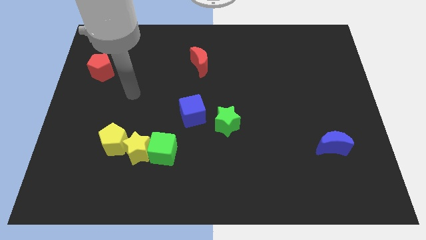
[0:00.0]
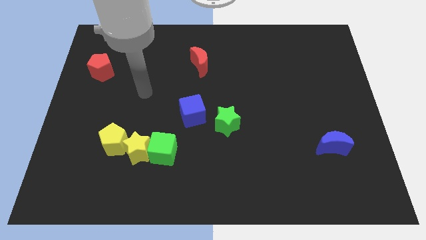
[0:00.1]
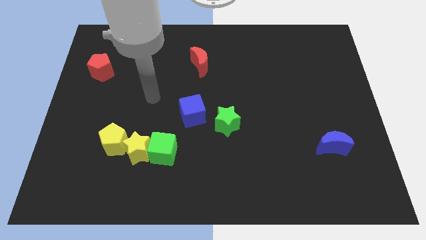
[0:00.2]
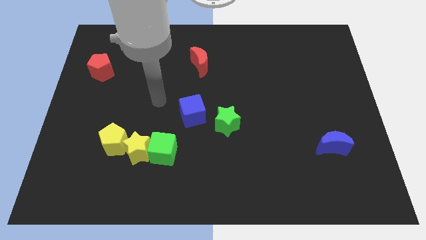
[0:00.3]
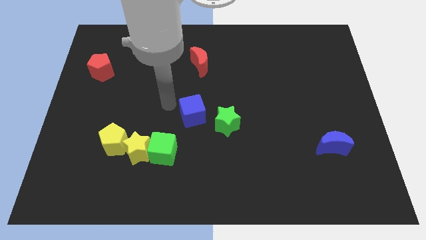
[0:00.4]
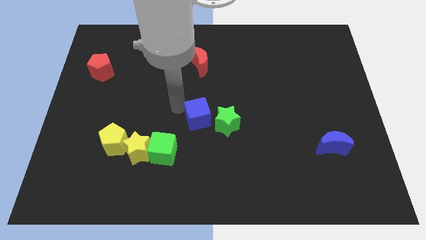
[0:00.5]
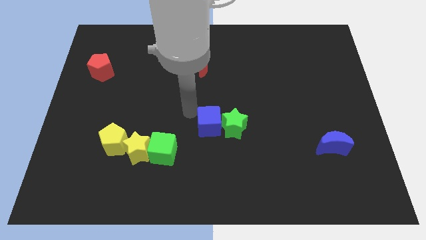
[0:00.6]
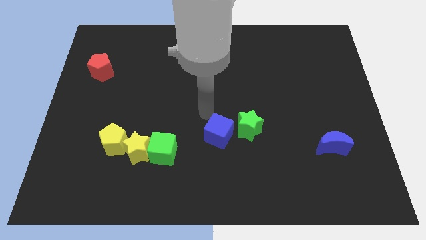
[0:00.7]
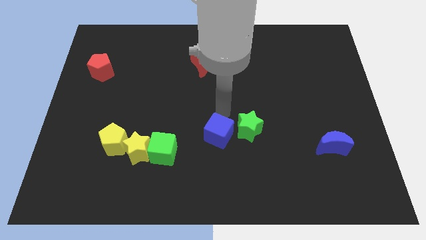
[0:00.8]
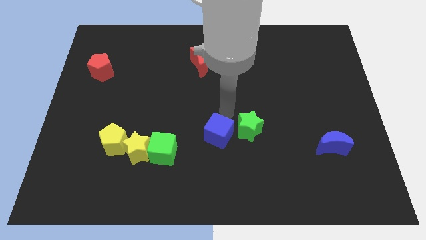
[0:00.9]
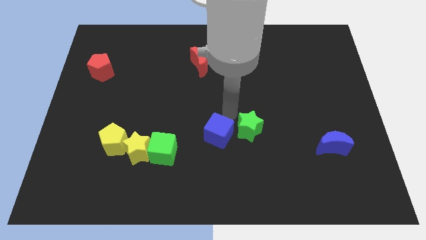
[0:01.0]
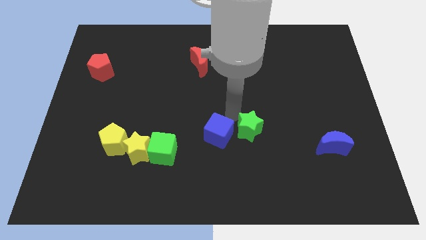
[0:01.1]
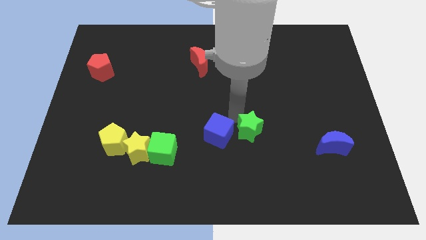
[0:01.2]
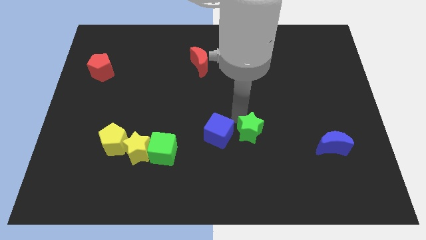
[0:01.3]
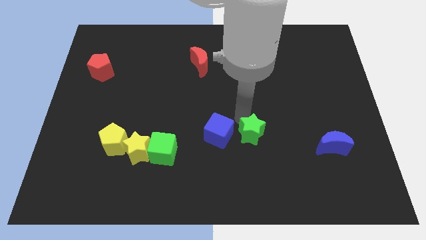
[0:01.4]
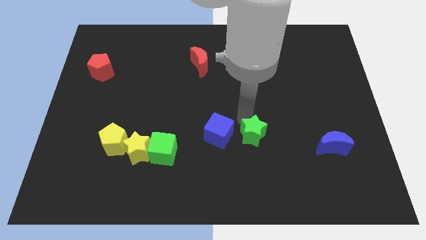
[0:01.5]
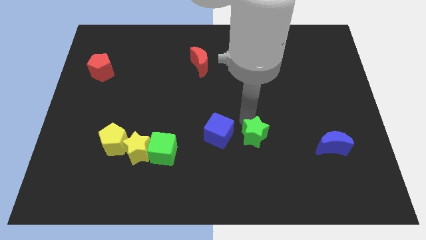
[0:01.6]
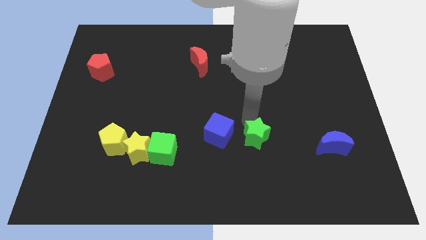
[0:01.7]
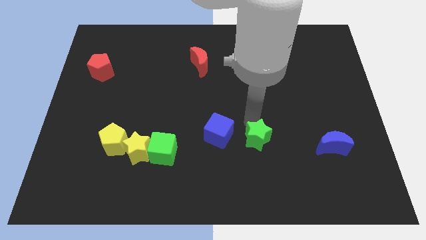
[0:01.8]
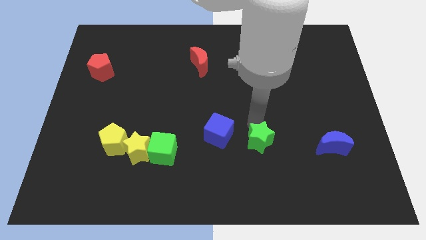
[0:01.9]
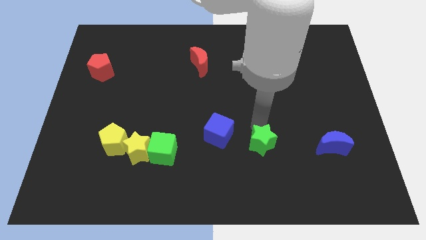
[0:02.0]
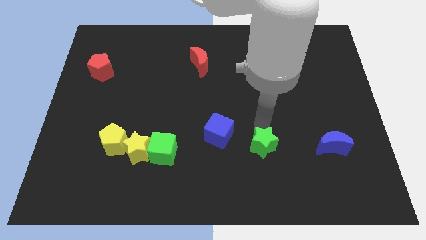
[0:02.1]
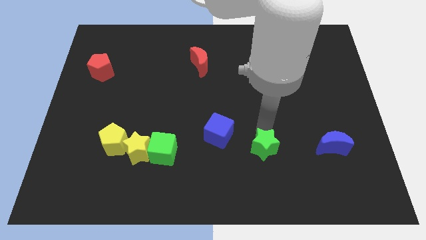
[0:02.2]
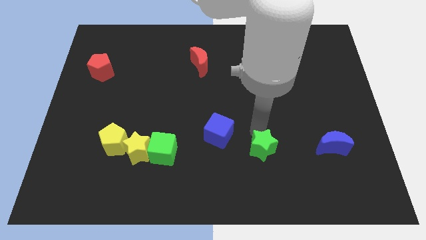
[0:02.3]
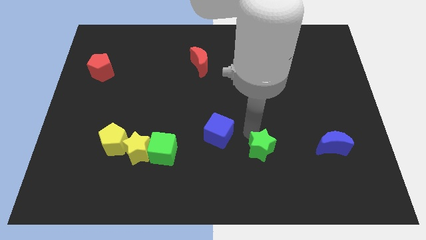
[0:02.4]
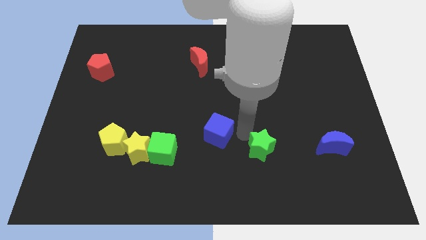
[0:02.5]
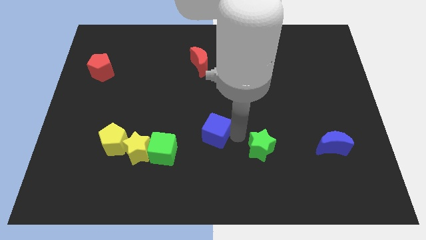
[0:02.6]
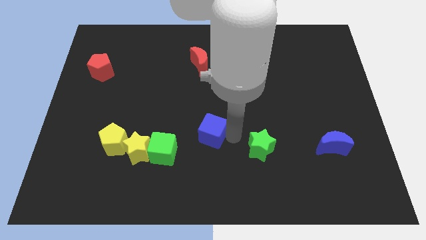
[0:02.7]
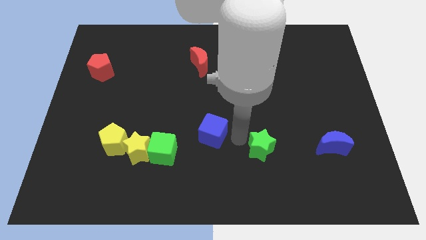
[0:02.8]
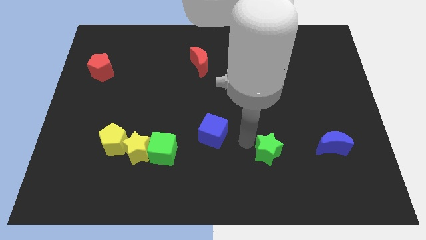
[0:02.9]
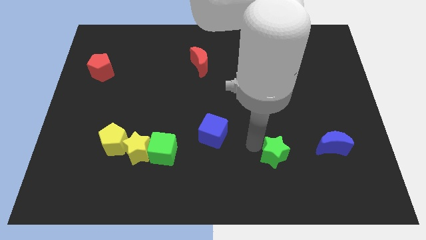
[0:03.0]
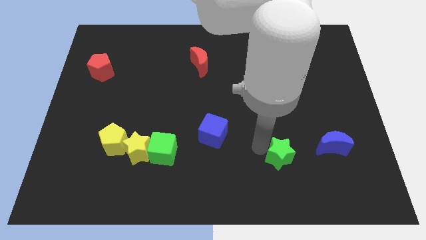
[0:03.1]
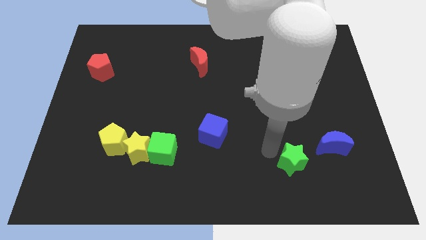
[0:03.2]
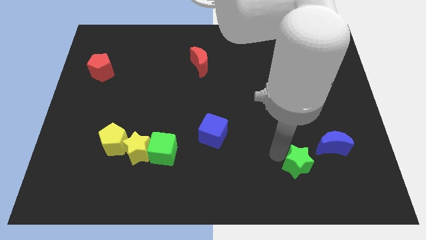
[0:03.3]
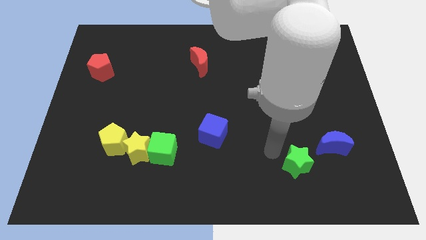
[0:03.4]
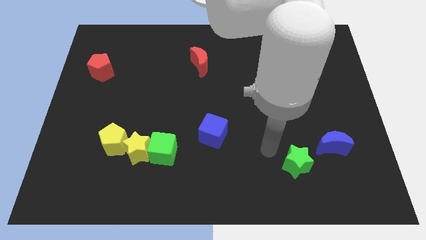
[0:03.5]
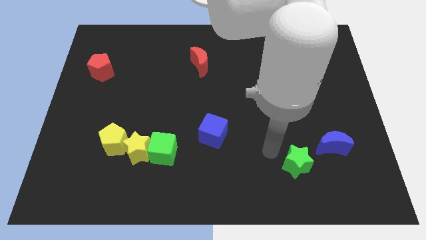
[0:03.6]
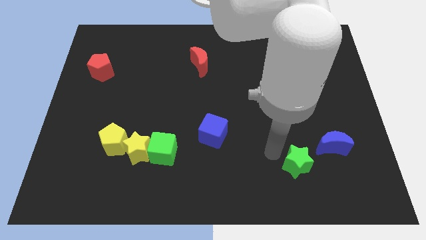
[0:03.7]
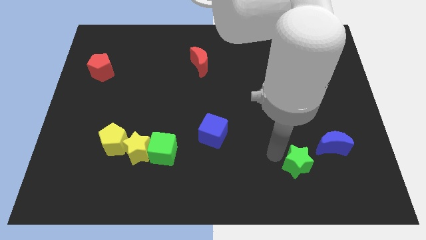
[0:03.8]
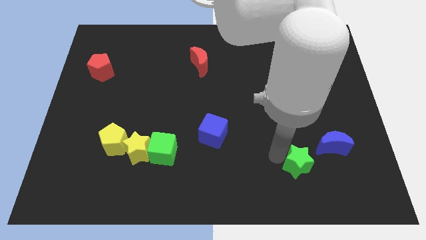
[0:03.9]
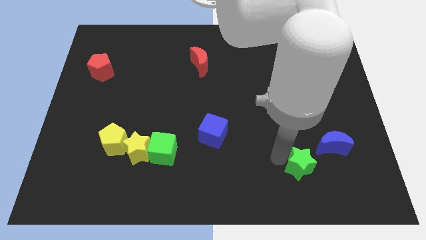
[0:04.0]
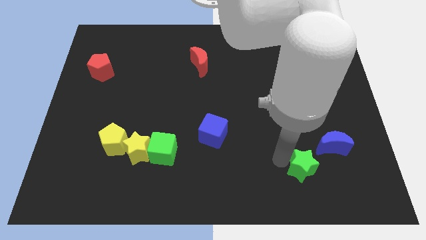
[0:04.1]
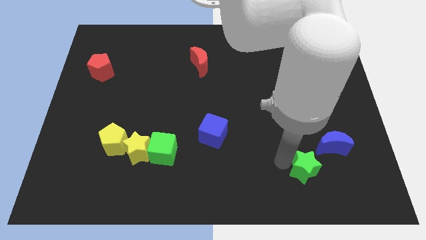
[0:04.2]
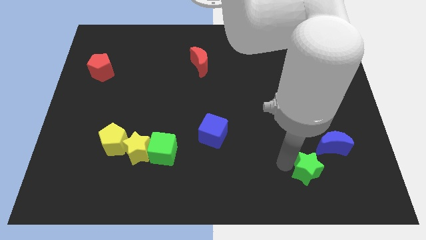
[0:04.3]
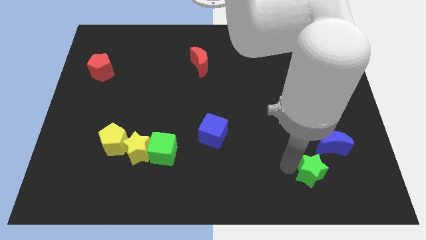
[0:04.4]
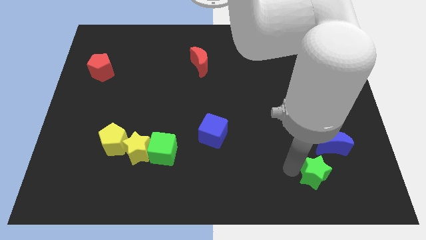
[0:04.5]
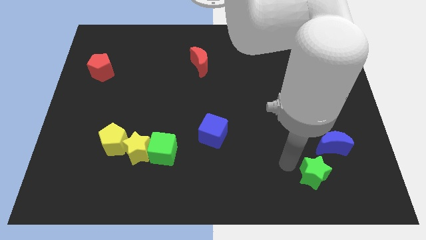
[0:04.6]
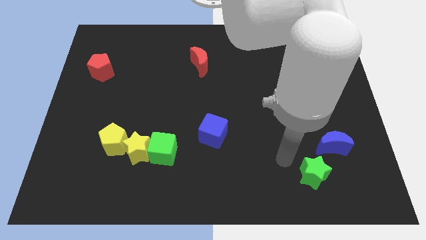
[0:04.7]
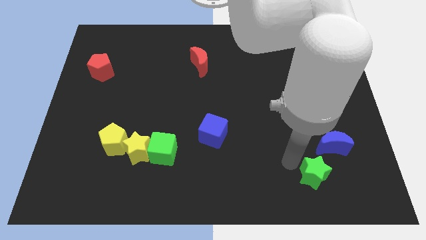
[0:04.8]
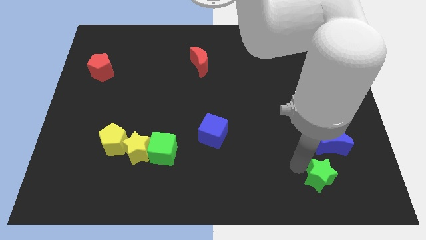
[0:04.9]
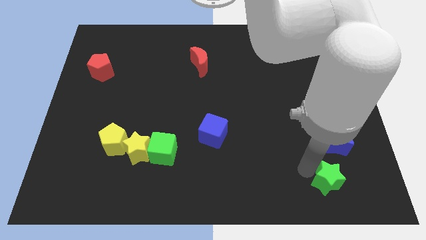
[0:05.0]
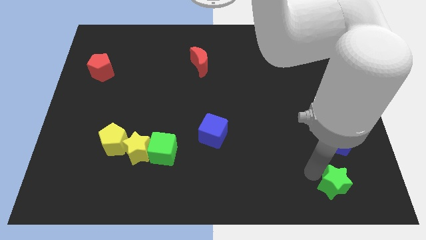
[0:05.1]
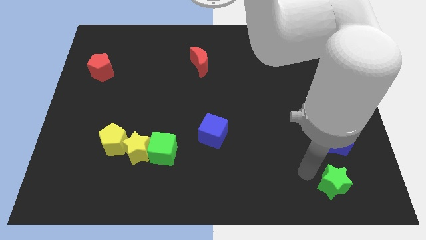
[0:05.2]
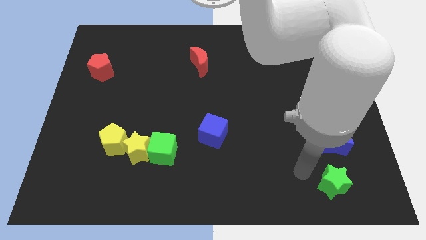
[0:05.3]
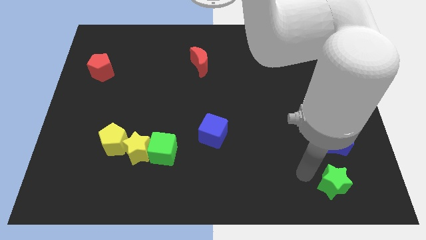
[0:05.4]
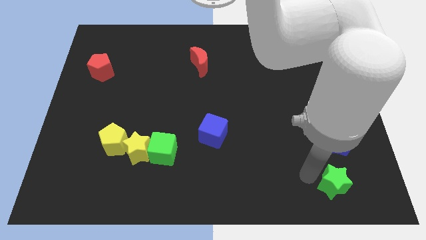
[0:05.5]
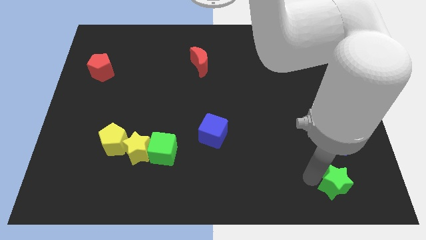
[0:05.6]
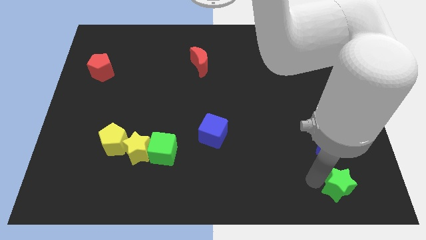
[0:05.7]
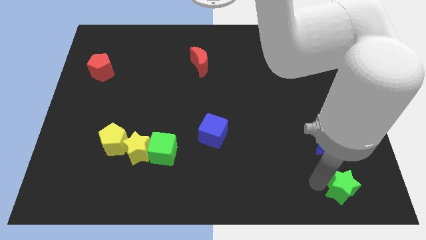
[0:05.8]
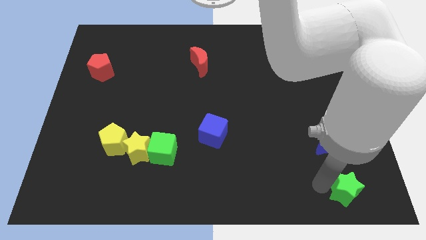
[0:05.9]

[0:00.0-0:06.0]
move the green star to the lower right corner
